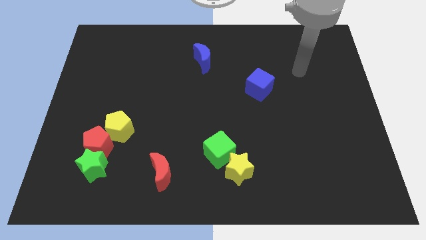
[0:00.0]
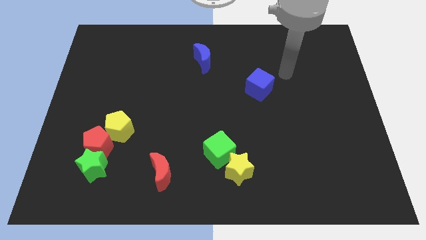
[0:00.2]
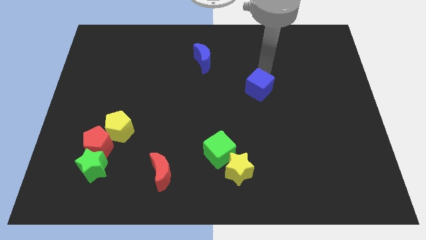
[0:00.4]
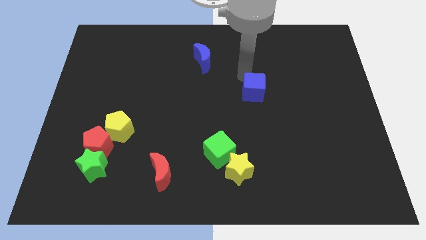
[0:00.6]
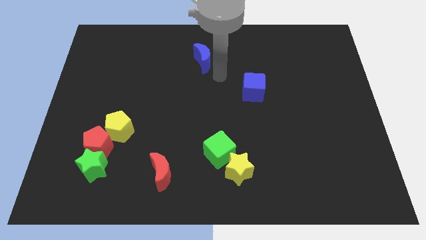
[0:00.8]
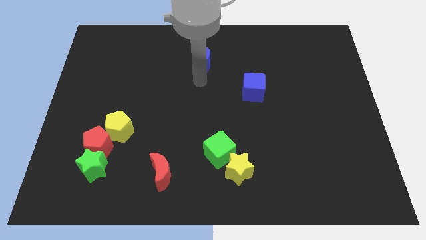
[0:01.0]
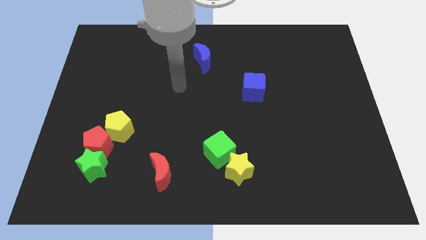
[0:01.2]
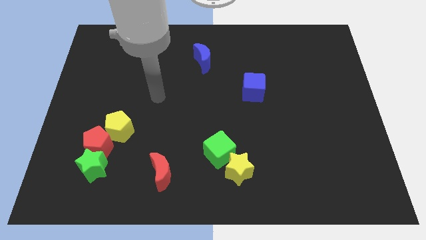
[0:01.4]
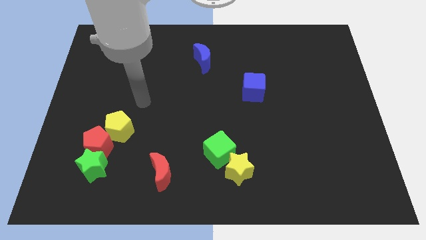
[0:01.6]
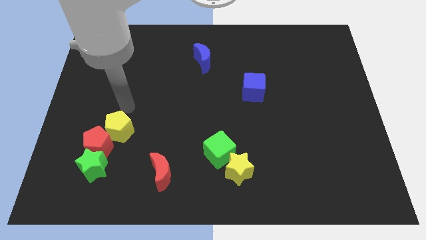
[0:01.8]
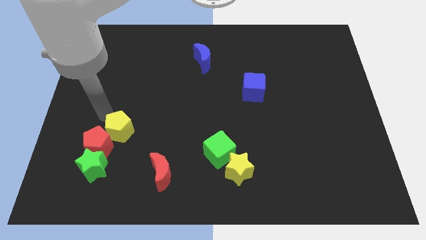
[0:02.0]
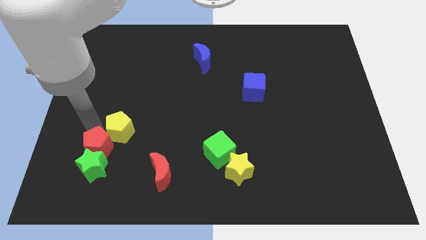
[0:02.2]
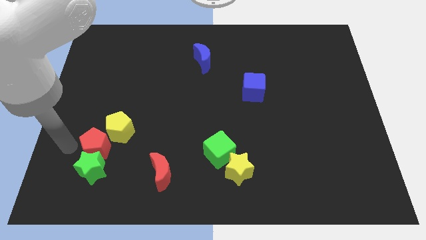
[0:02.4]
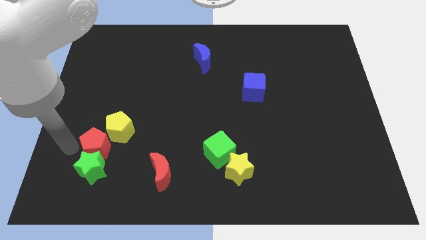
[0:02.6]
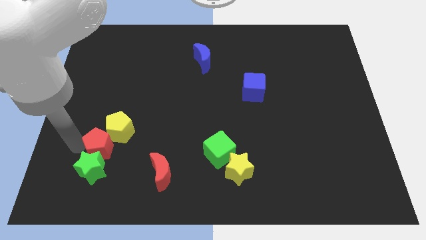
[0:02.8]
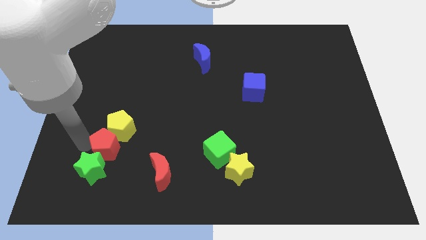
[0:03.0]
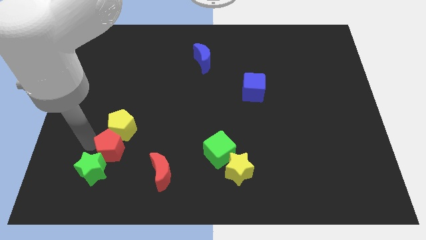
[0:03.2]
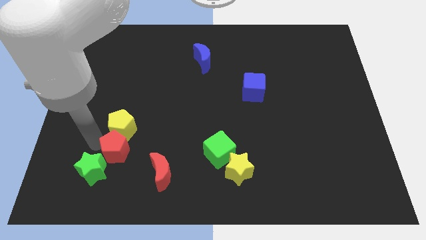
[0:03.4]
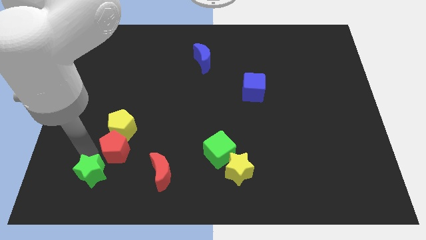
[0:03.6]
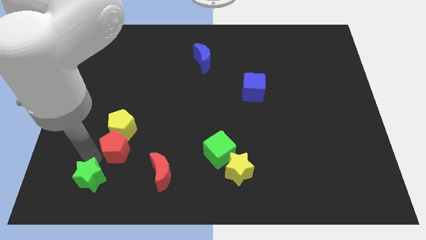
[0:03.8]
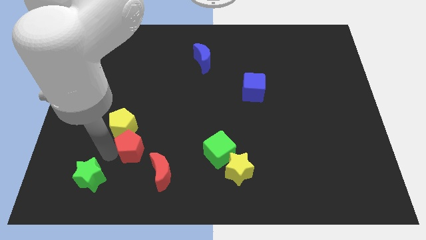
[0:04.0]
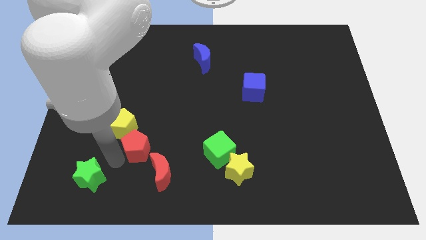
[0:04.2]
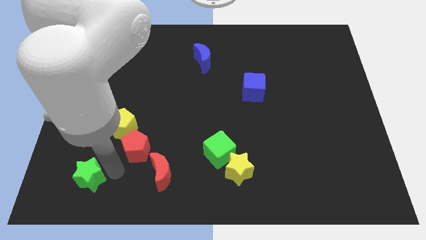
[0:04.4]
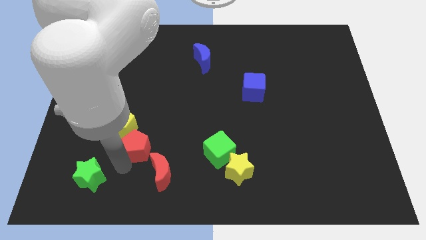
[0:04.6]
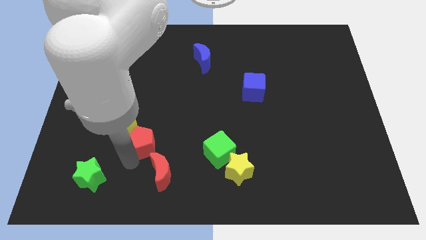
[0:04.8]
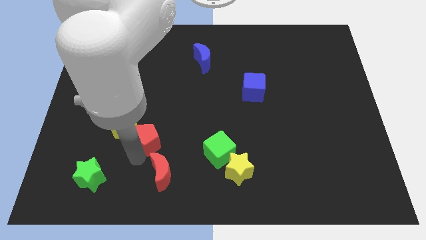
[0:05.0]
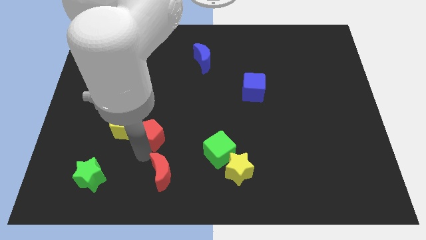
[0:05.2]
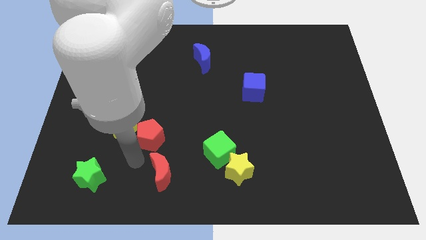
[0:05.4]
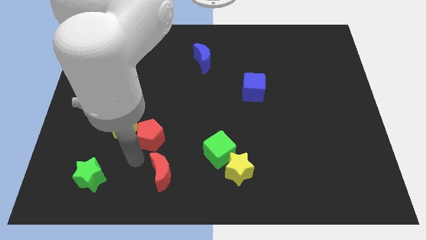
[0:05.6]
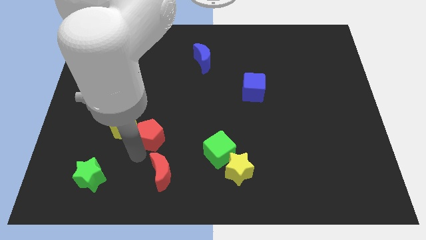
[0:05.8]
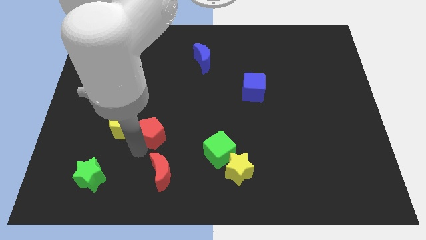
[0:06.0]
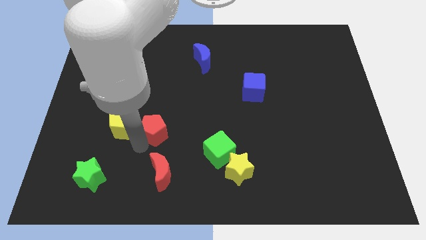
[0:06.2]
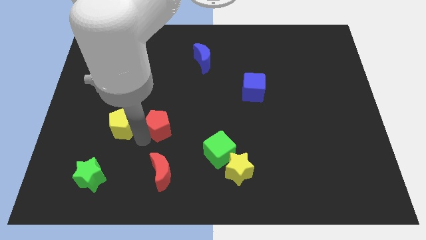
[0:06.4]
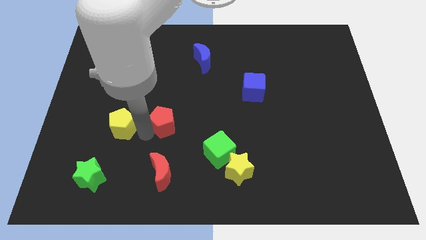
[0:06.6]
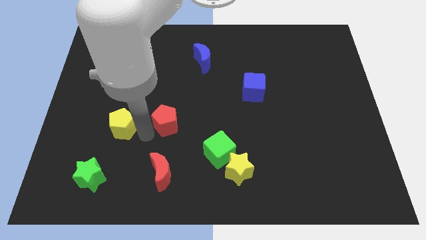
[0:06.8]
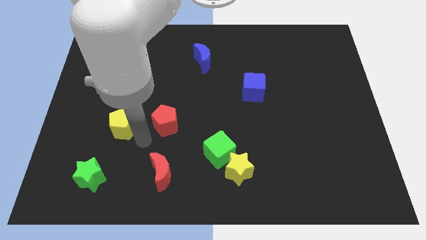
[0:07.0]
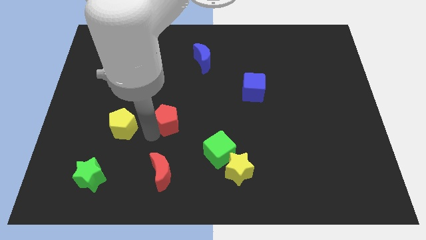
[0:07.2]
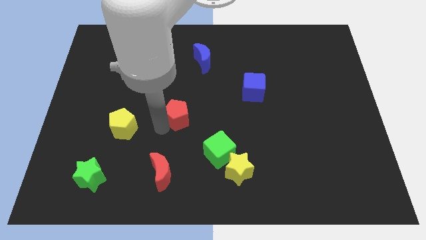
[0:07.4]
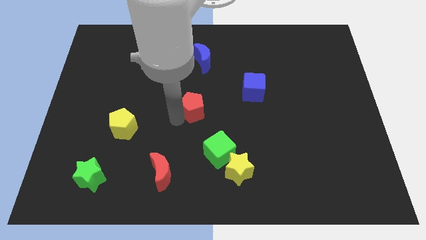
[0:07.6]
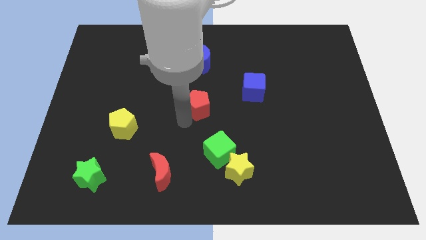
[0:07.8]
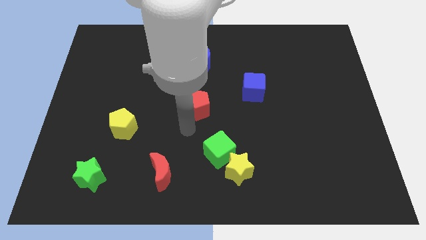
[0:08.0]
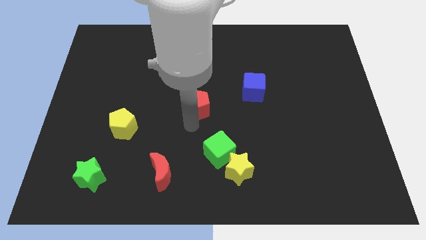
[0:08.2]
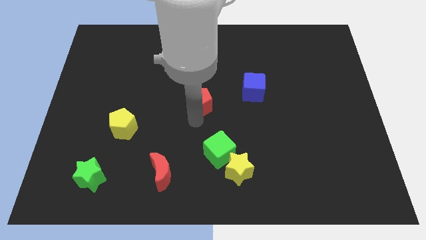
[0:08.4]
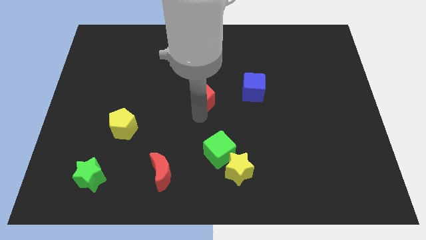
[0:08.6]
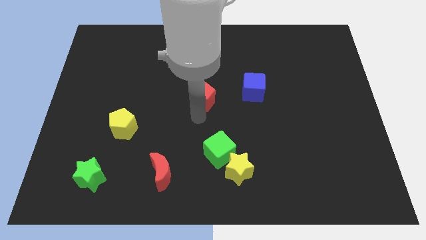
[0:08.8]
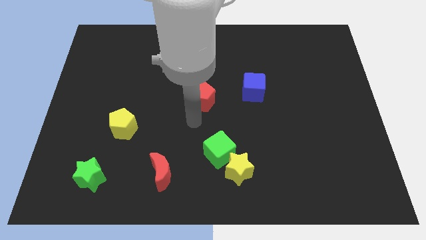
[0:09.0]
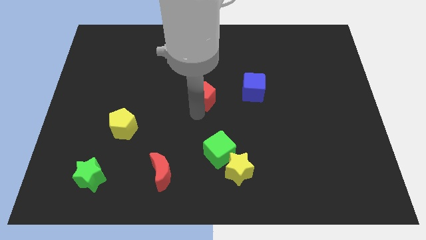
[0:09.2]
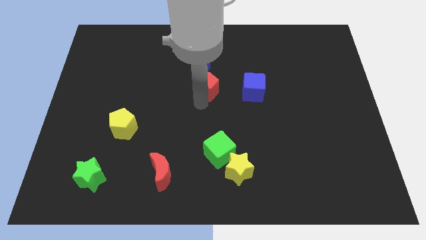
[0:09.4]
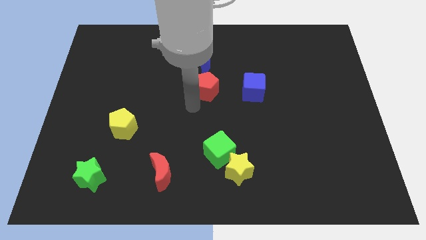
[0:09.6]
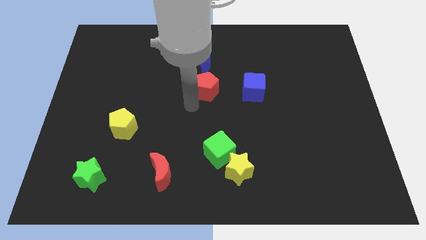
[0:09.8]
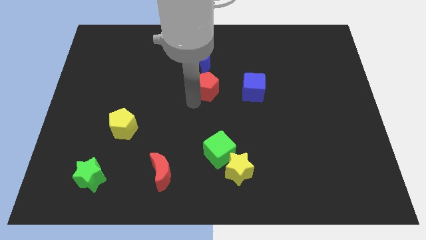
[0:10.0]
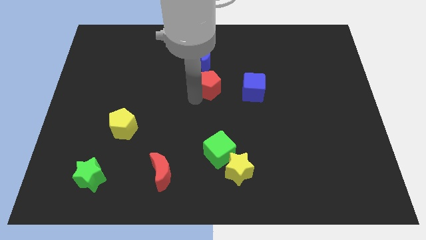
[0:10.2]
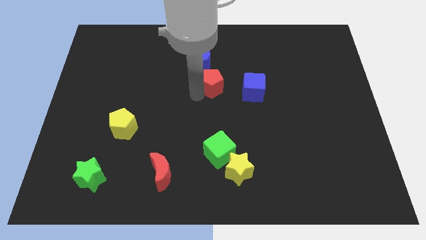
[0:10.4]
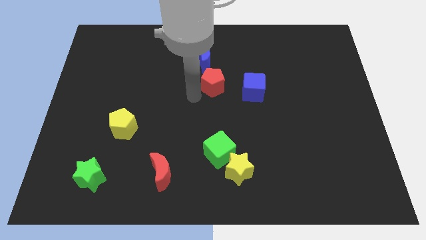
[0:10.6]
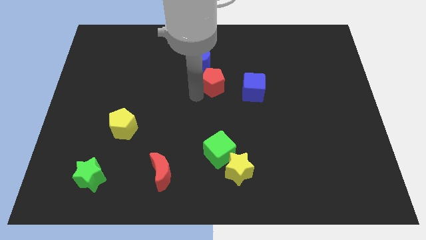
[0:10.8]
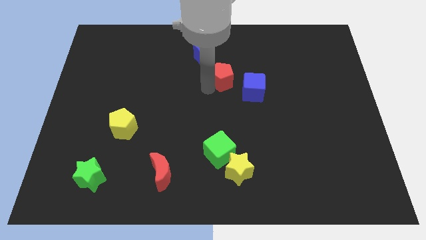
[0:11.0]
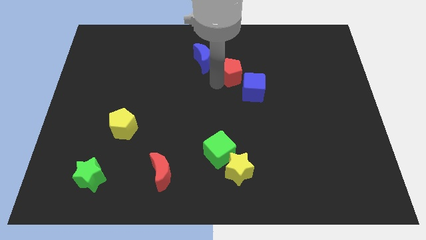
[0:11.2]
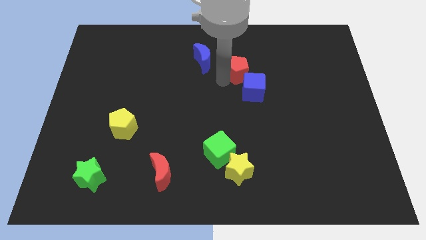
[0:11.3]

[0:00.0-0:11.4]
put the red pentagon to the right side of the blue moon

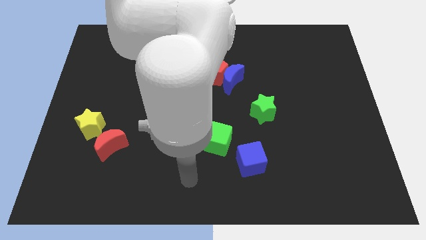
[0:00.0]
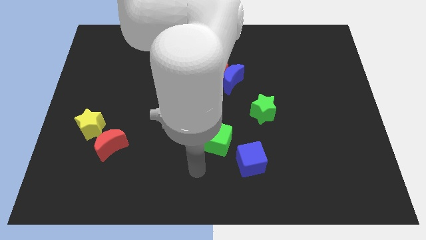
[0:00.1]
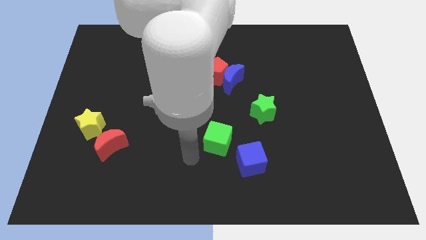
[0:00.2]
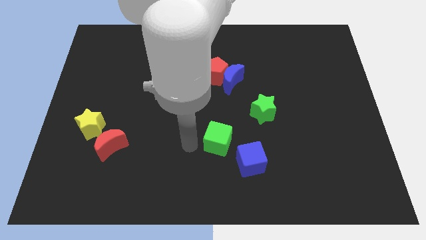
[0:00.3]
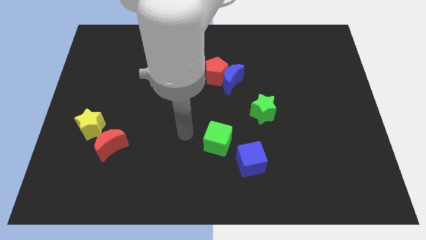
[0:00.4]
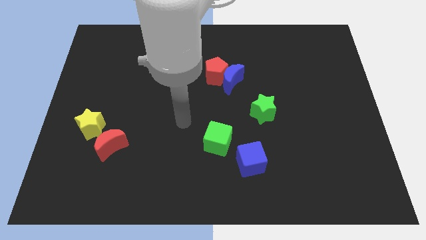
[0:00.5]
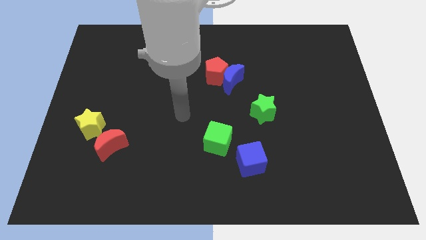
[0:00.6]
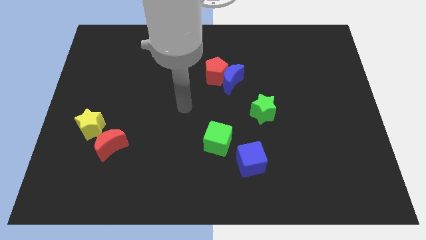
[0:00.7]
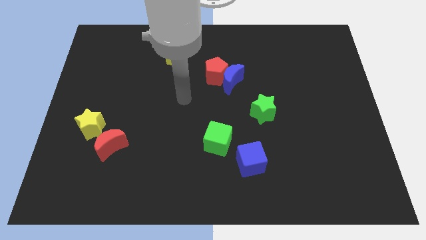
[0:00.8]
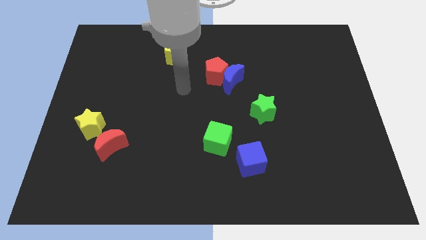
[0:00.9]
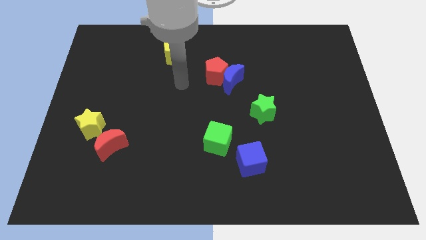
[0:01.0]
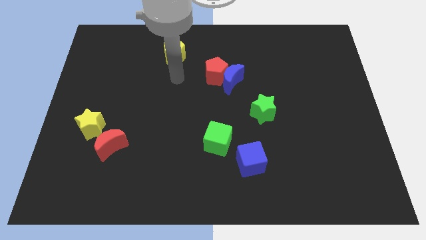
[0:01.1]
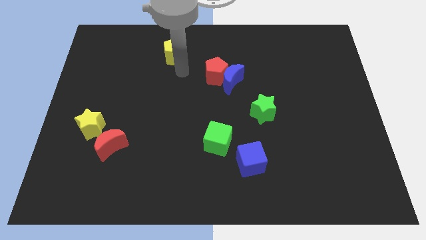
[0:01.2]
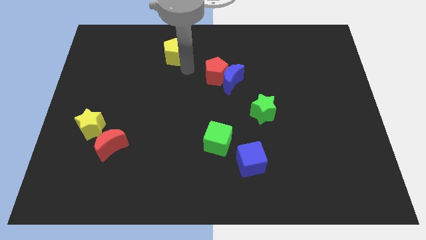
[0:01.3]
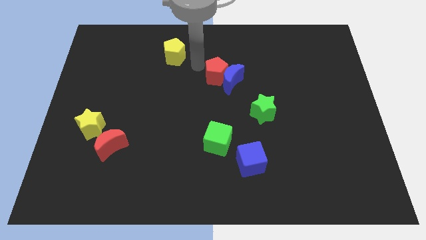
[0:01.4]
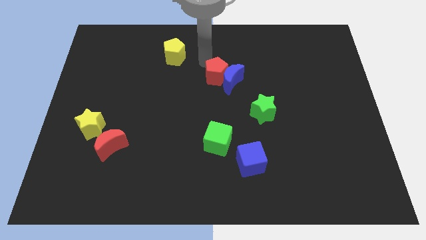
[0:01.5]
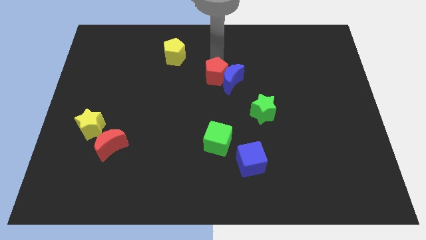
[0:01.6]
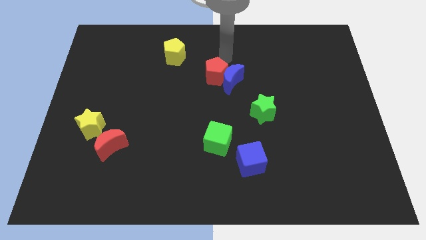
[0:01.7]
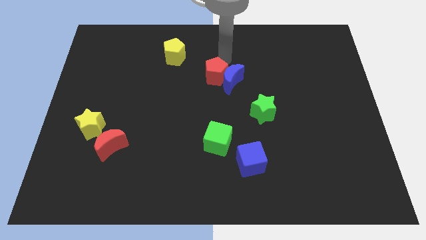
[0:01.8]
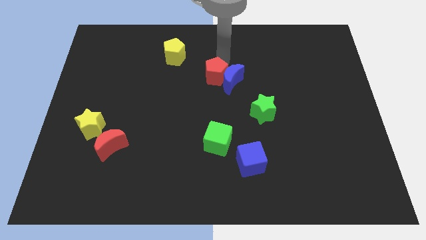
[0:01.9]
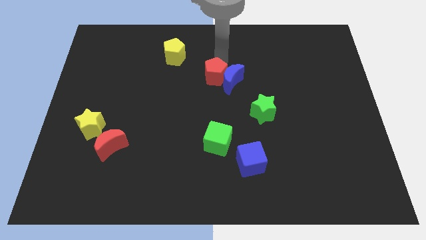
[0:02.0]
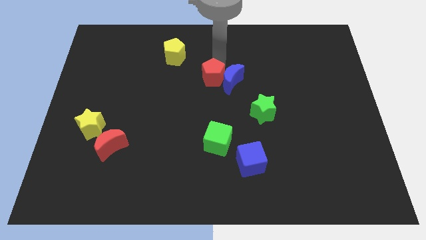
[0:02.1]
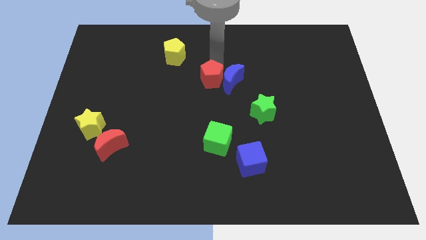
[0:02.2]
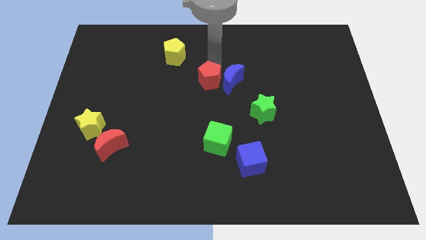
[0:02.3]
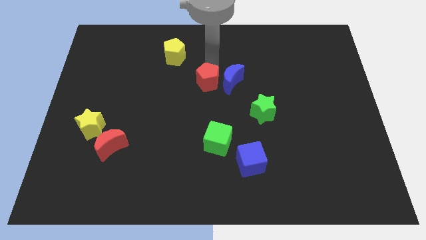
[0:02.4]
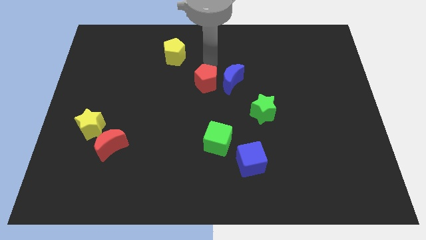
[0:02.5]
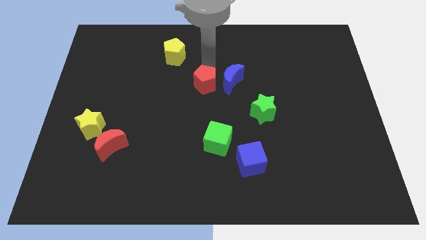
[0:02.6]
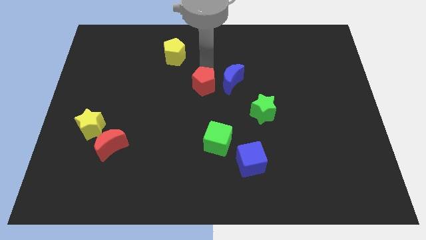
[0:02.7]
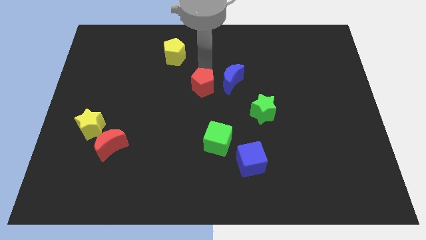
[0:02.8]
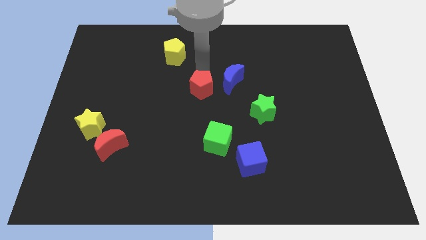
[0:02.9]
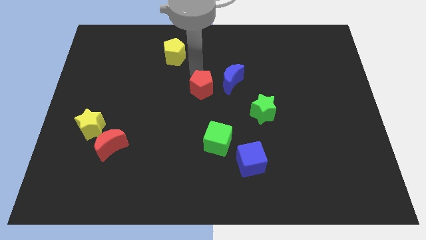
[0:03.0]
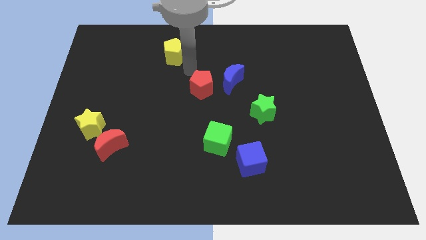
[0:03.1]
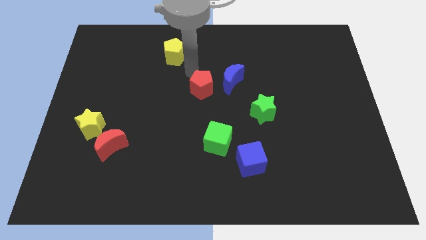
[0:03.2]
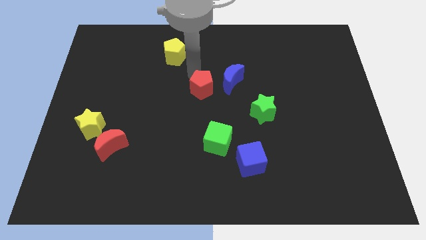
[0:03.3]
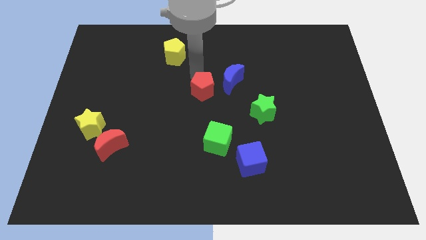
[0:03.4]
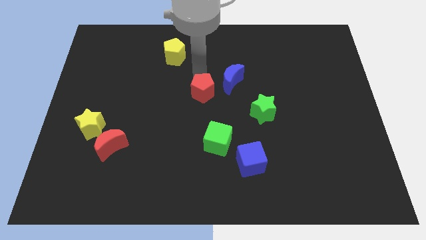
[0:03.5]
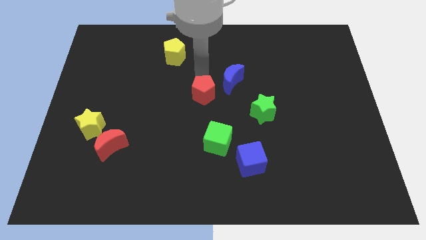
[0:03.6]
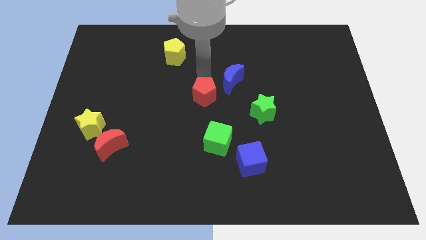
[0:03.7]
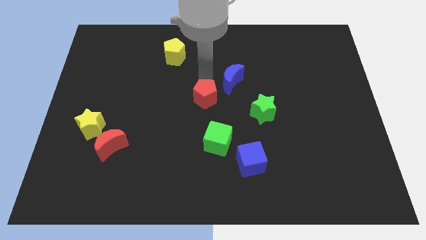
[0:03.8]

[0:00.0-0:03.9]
move the red pentagon left of the green star
